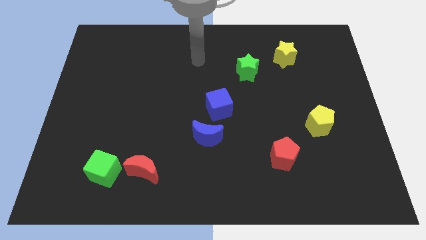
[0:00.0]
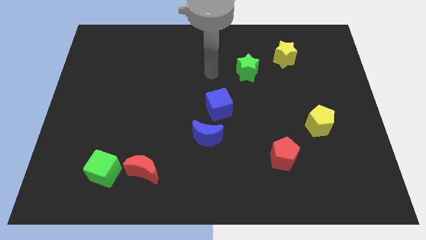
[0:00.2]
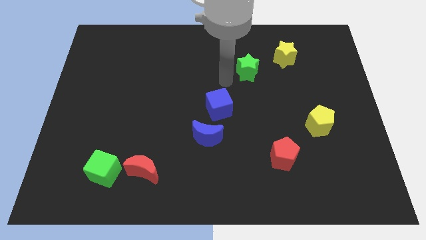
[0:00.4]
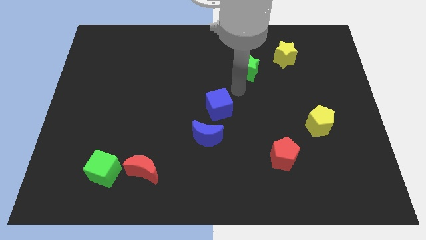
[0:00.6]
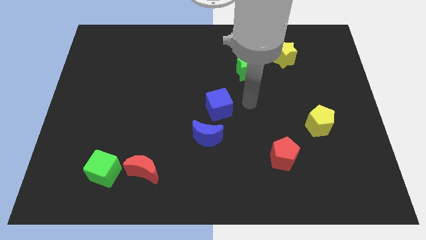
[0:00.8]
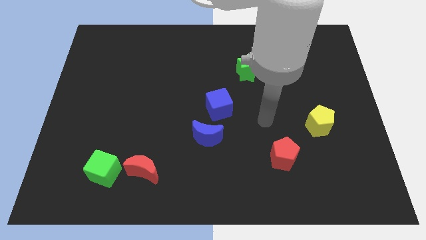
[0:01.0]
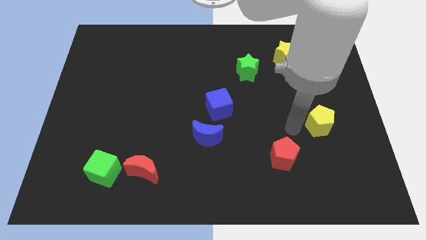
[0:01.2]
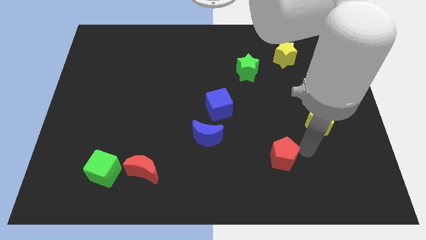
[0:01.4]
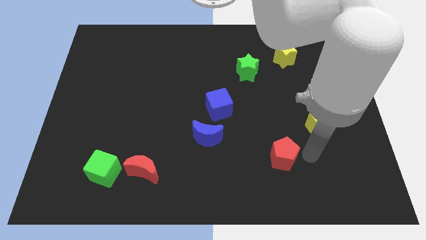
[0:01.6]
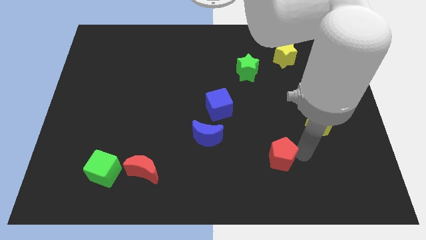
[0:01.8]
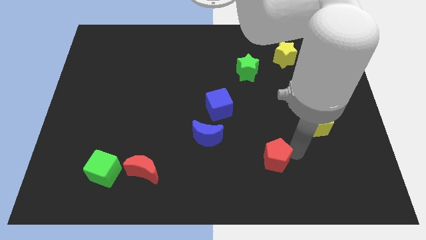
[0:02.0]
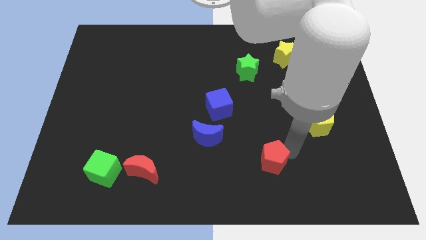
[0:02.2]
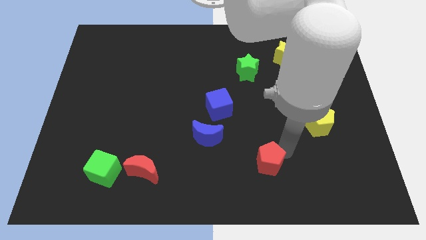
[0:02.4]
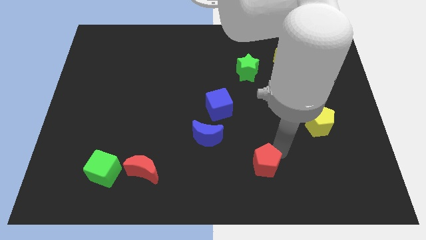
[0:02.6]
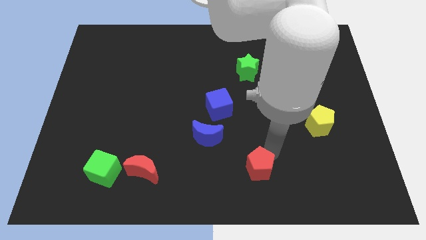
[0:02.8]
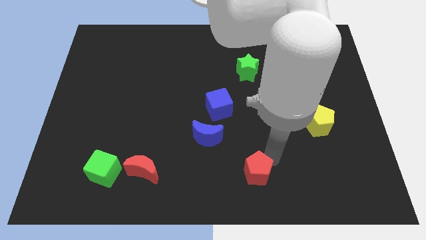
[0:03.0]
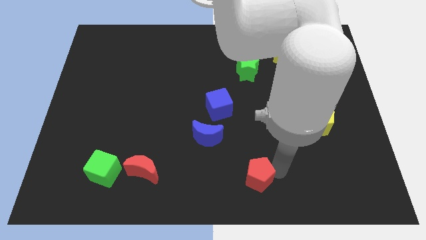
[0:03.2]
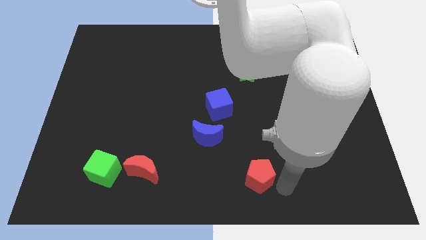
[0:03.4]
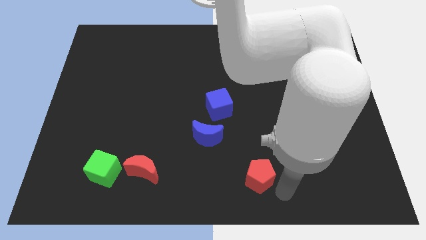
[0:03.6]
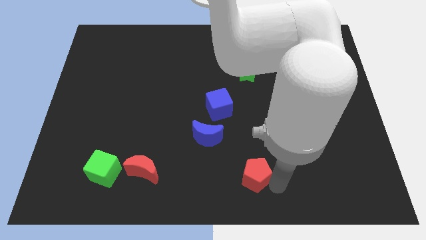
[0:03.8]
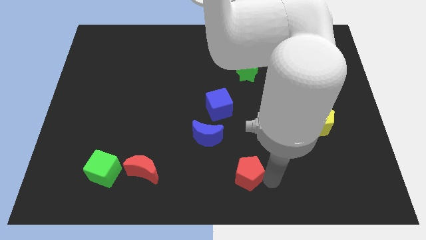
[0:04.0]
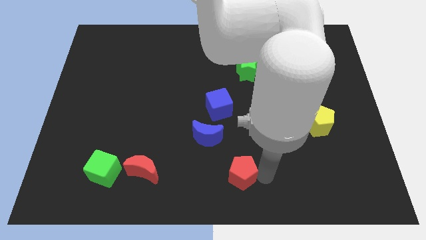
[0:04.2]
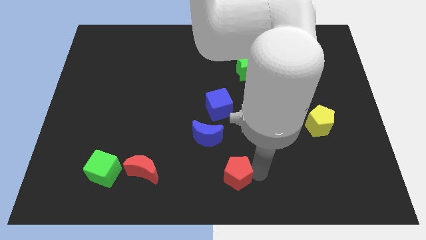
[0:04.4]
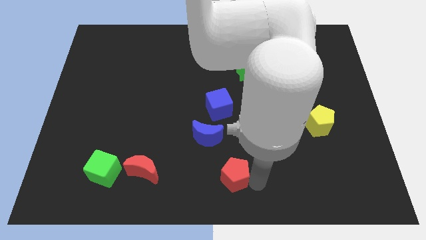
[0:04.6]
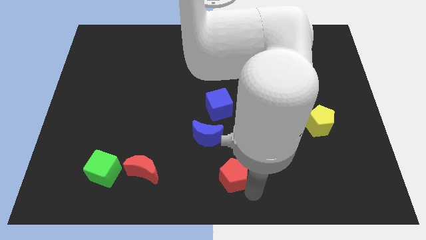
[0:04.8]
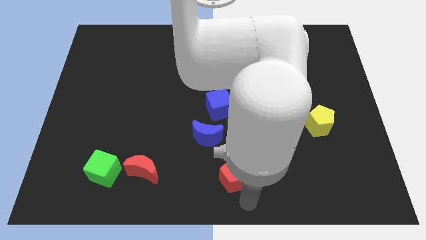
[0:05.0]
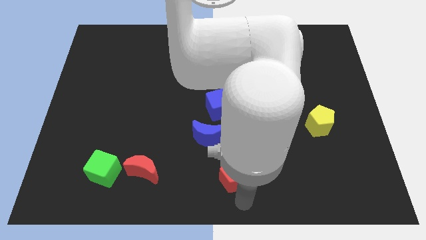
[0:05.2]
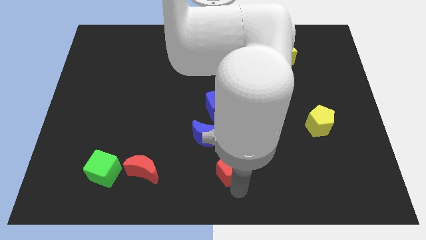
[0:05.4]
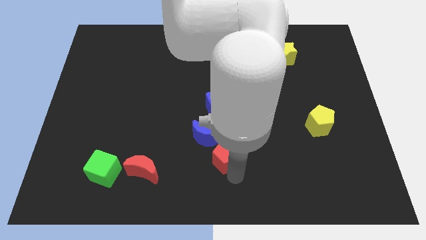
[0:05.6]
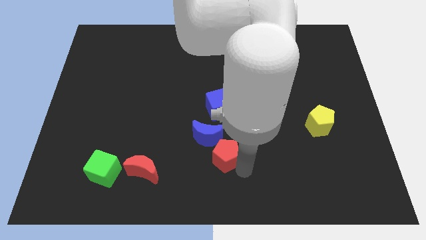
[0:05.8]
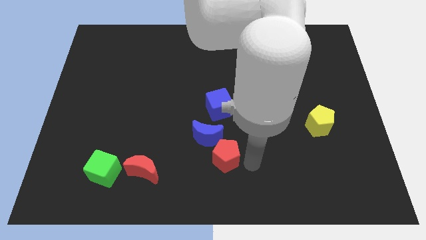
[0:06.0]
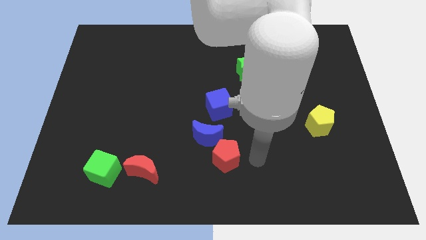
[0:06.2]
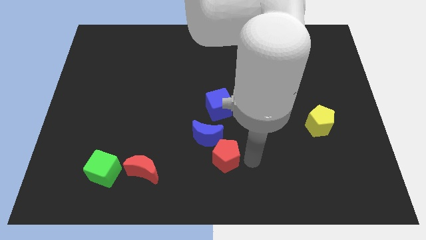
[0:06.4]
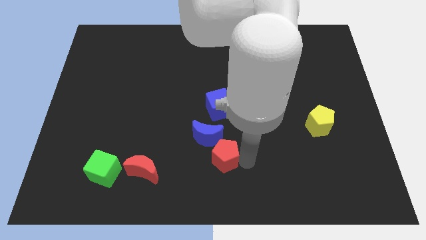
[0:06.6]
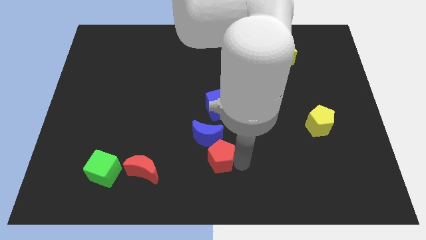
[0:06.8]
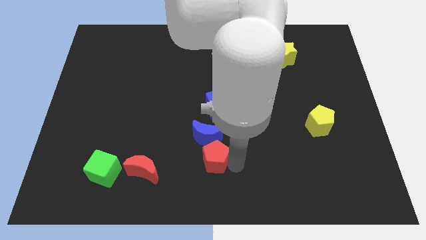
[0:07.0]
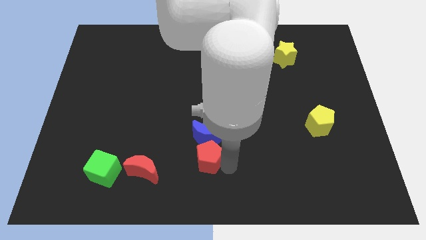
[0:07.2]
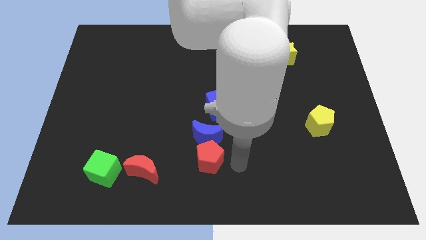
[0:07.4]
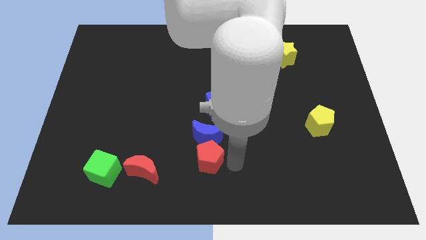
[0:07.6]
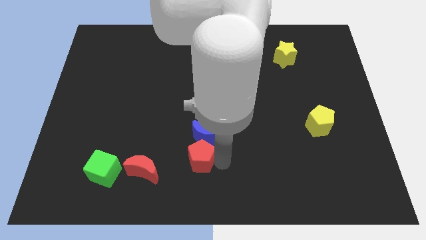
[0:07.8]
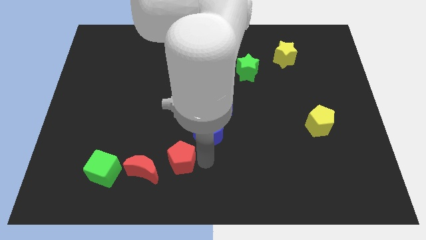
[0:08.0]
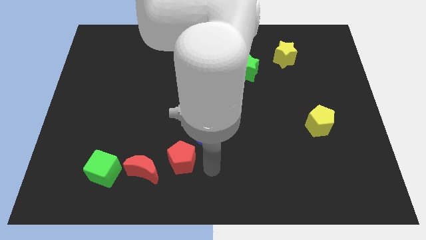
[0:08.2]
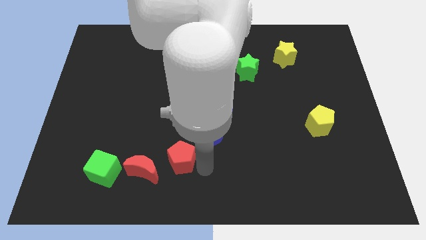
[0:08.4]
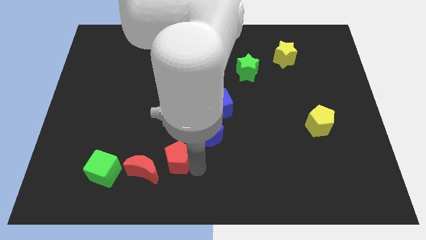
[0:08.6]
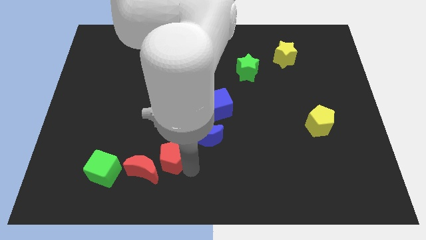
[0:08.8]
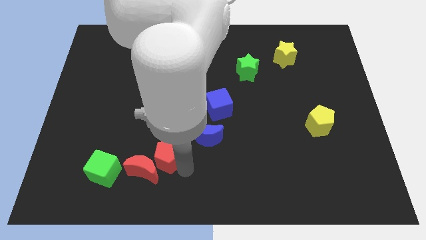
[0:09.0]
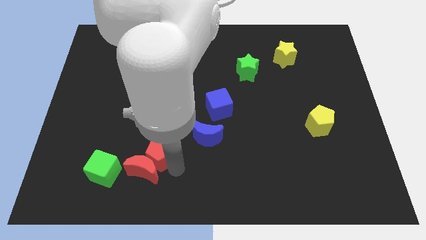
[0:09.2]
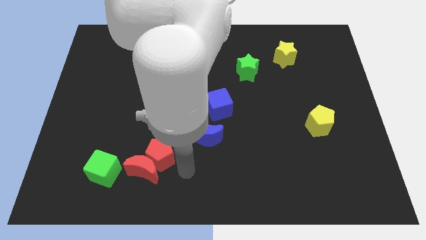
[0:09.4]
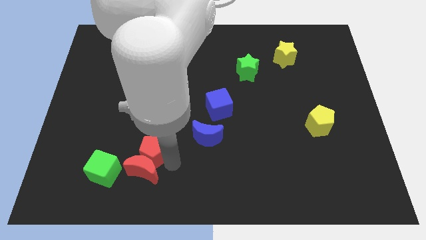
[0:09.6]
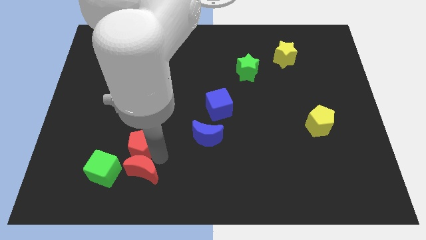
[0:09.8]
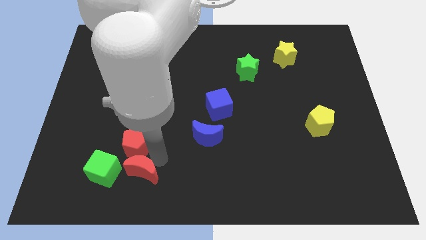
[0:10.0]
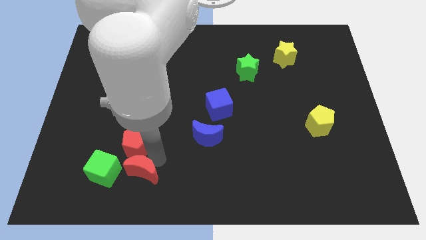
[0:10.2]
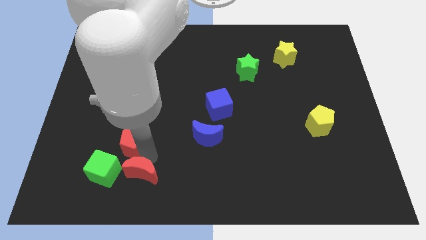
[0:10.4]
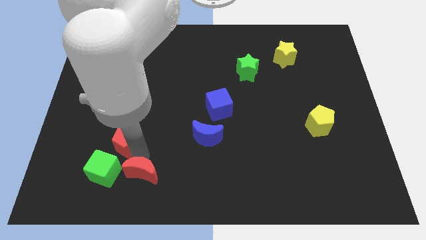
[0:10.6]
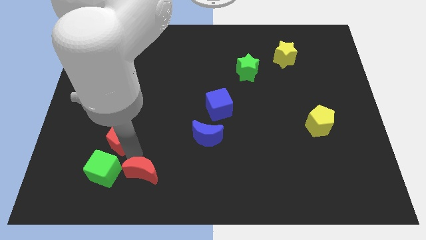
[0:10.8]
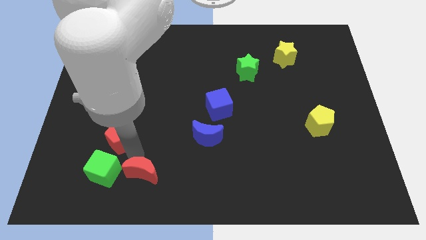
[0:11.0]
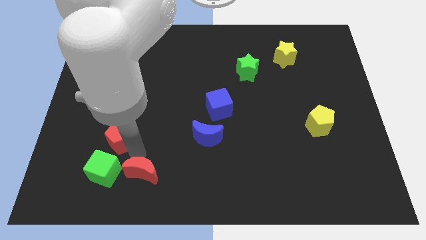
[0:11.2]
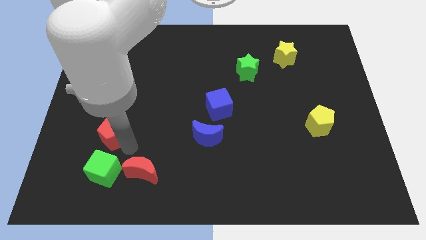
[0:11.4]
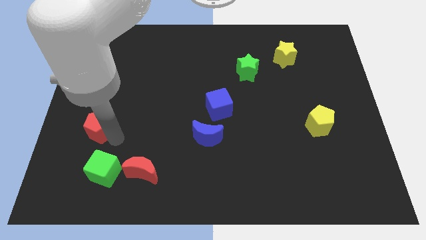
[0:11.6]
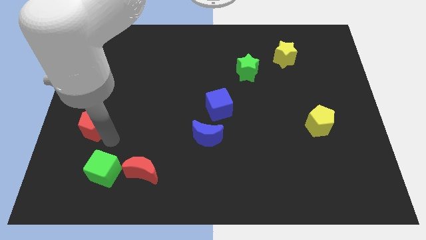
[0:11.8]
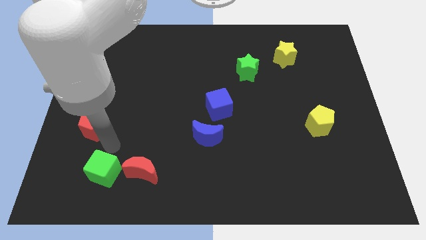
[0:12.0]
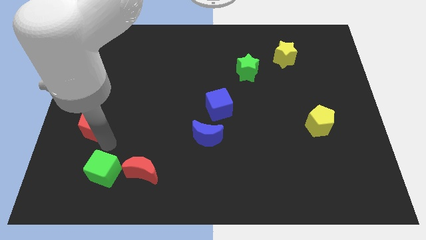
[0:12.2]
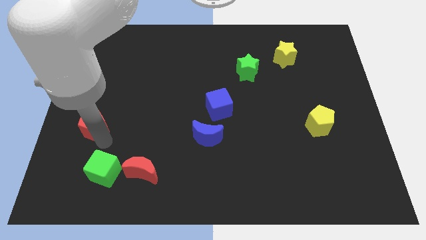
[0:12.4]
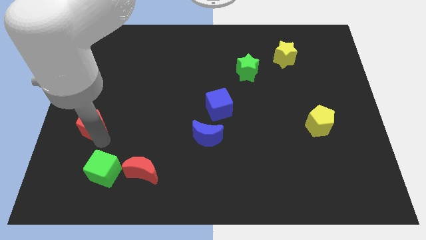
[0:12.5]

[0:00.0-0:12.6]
slide the red pentagon to the left side of the board
